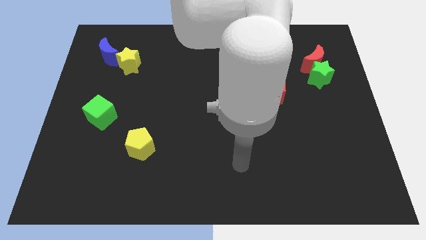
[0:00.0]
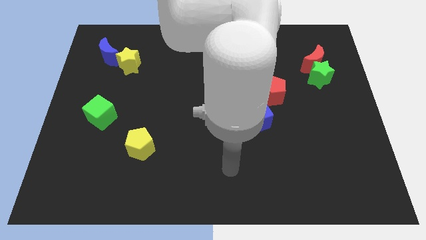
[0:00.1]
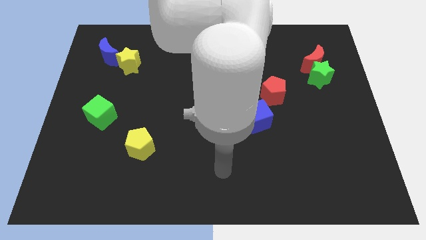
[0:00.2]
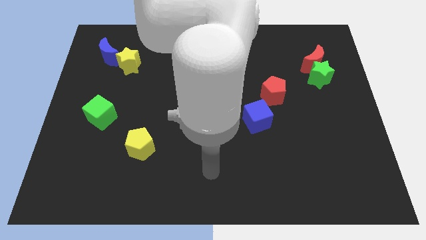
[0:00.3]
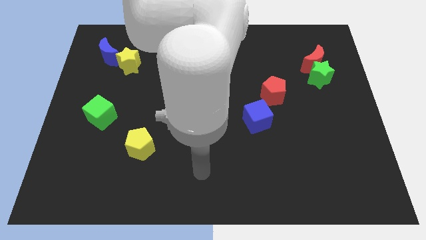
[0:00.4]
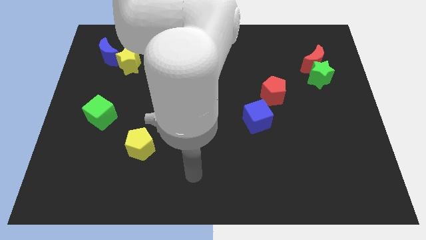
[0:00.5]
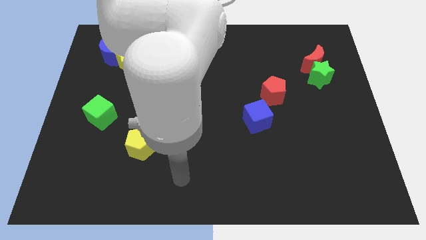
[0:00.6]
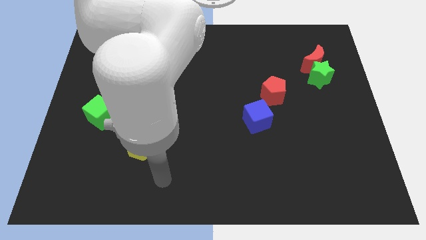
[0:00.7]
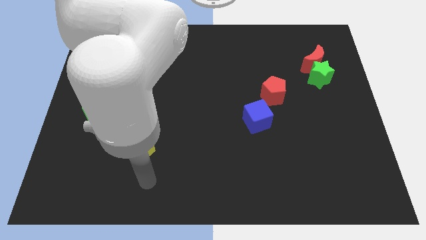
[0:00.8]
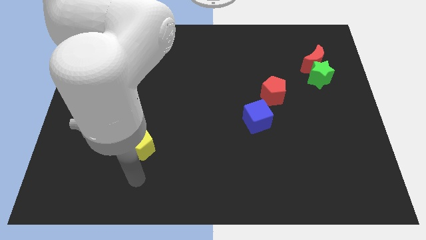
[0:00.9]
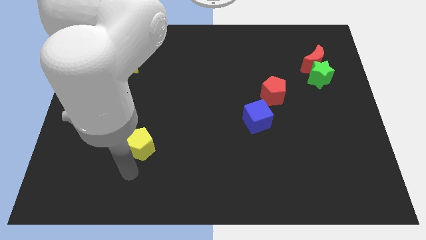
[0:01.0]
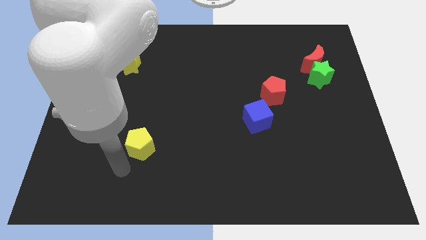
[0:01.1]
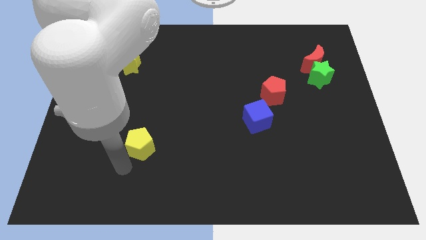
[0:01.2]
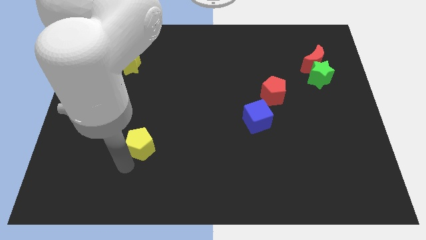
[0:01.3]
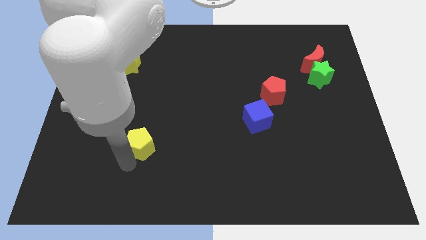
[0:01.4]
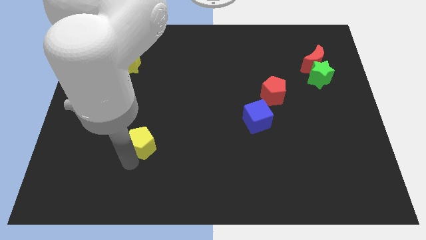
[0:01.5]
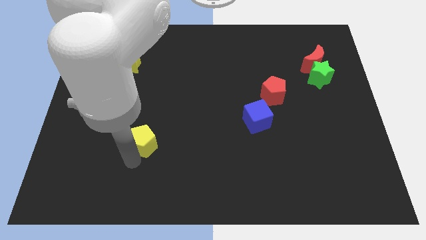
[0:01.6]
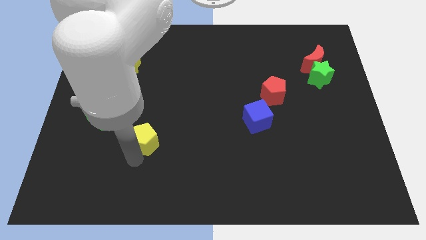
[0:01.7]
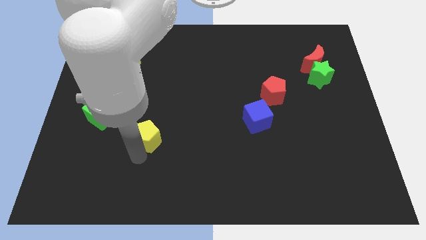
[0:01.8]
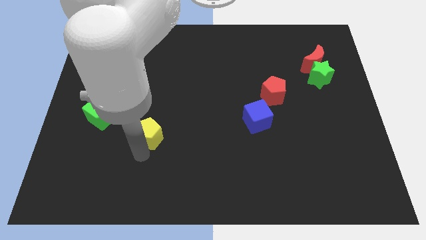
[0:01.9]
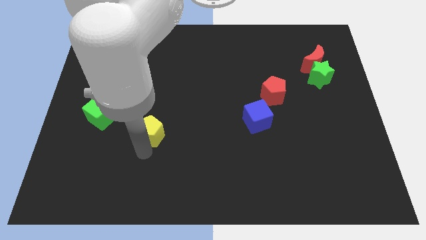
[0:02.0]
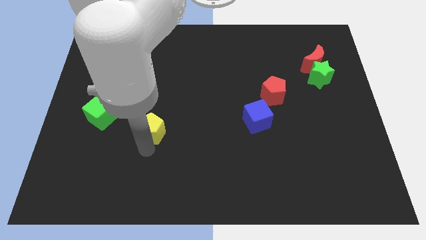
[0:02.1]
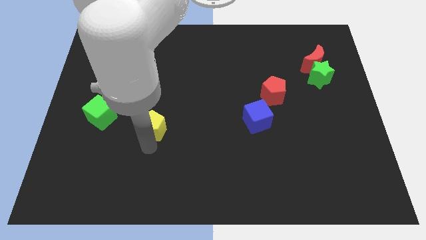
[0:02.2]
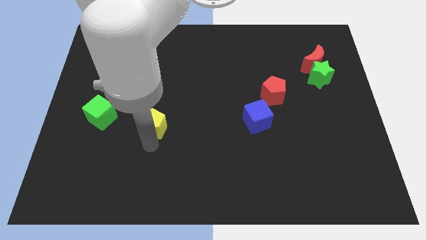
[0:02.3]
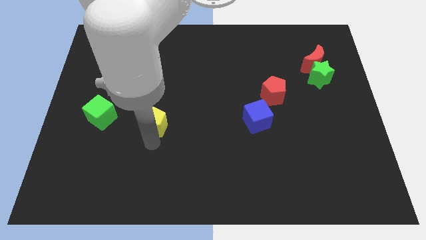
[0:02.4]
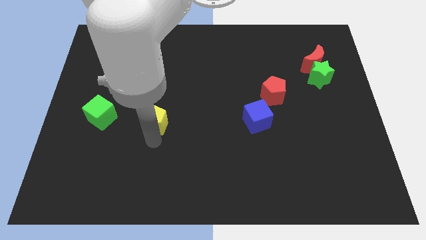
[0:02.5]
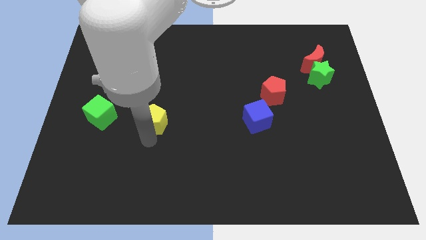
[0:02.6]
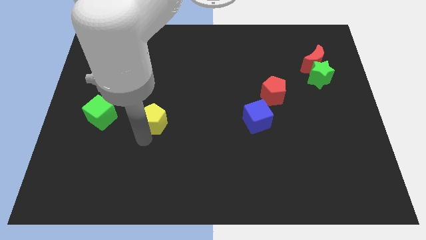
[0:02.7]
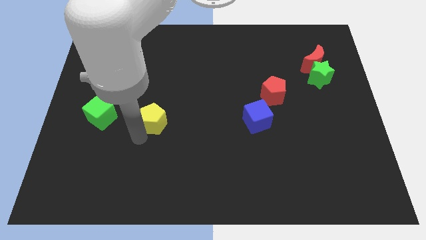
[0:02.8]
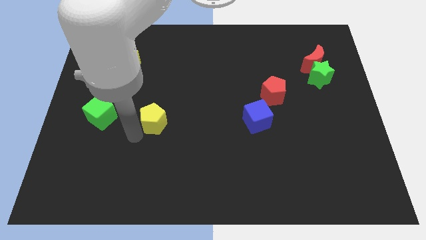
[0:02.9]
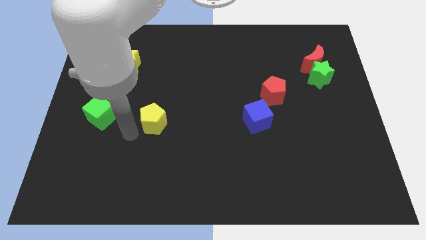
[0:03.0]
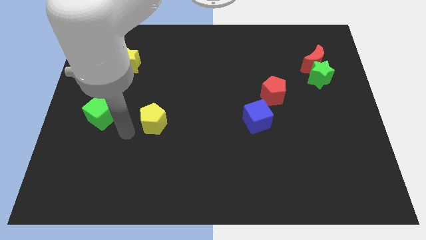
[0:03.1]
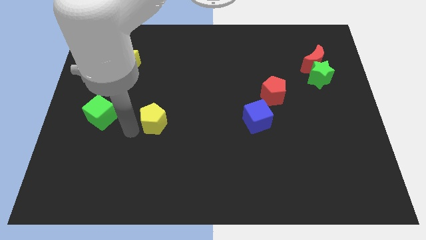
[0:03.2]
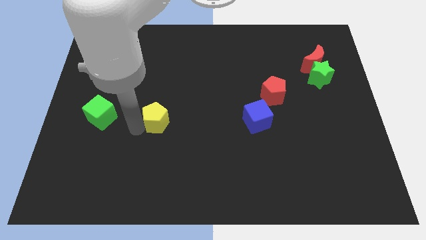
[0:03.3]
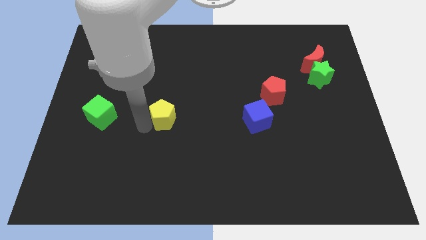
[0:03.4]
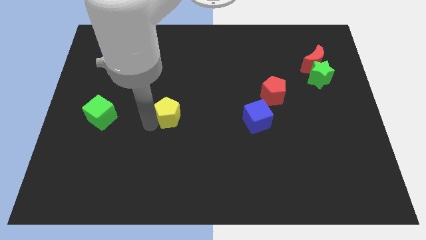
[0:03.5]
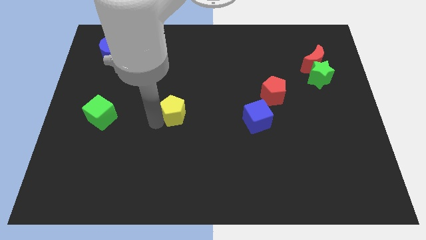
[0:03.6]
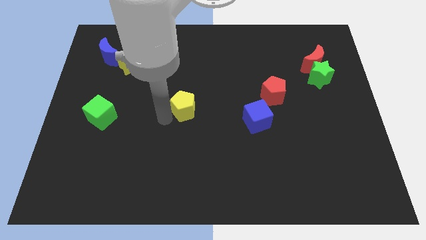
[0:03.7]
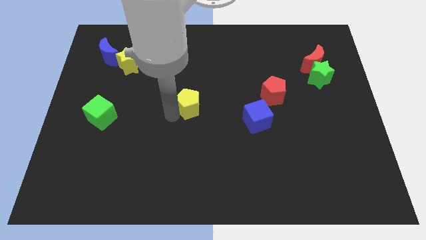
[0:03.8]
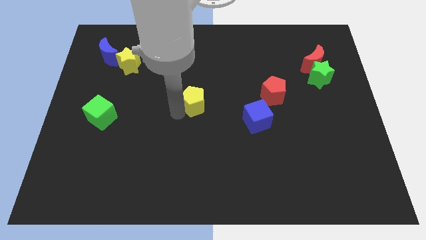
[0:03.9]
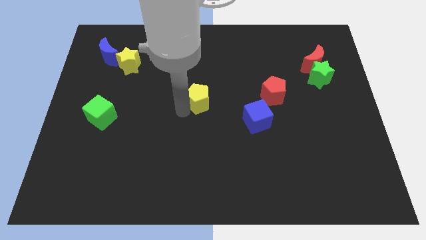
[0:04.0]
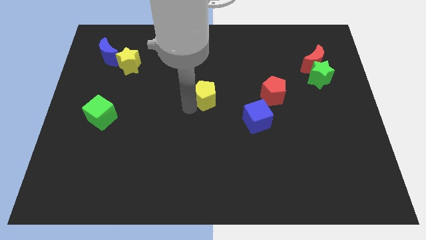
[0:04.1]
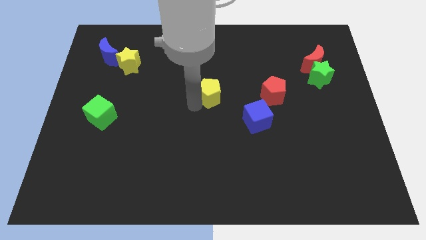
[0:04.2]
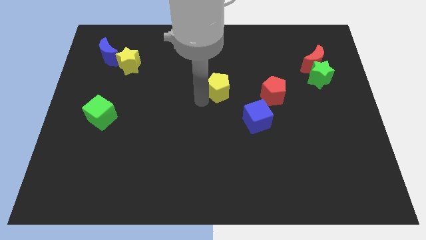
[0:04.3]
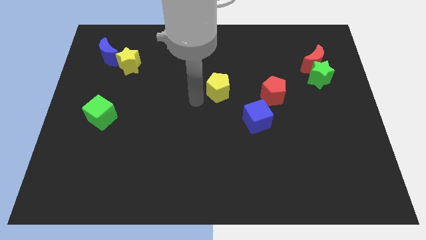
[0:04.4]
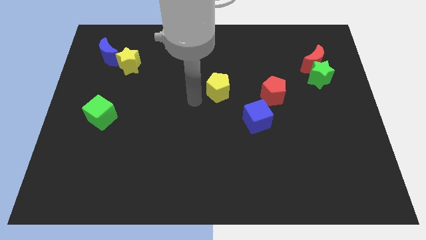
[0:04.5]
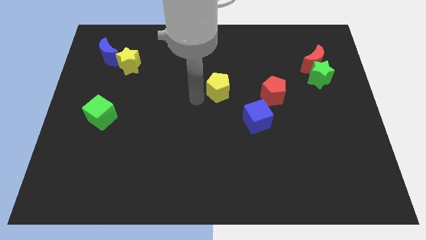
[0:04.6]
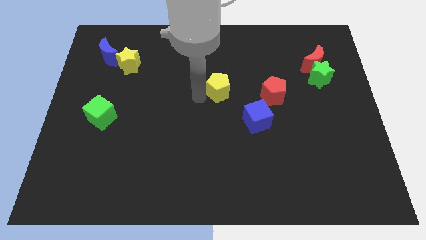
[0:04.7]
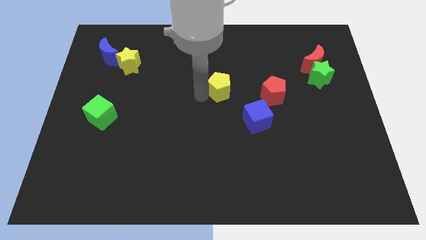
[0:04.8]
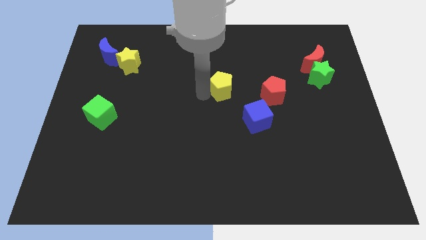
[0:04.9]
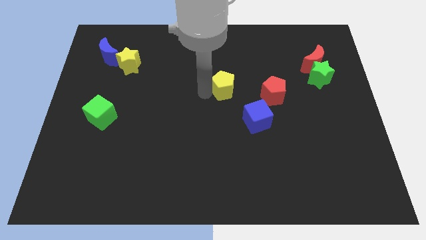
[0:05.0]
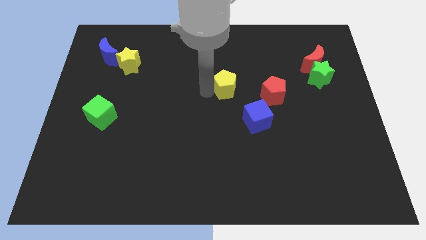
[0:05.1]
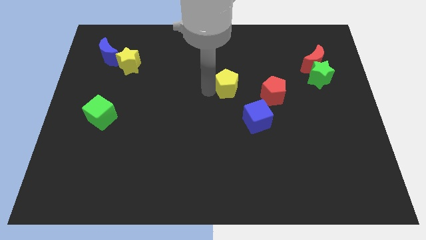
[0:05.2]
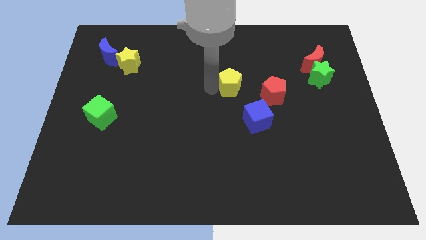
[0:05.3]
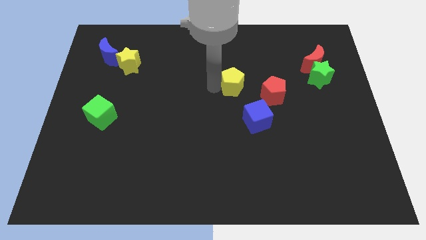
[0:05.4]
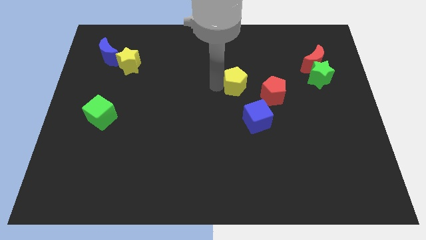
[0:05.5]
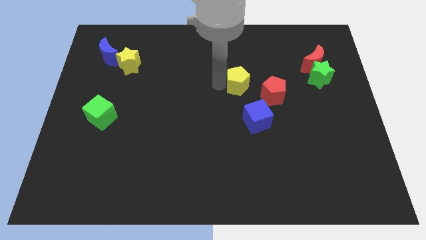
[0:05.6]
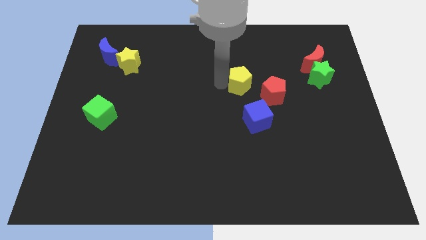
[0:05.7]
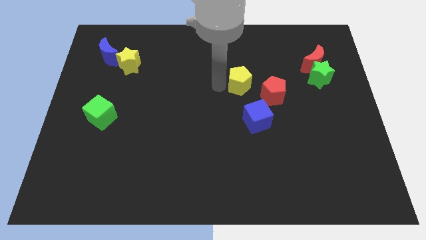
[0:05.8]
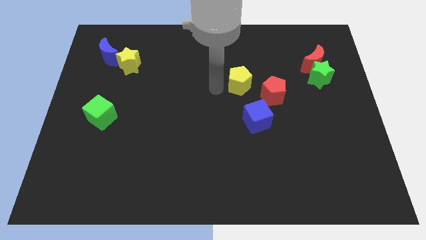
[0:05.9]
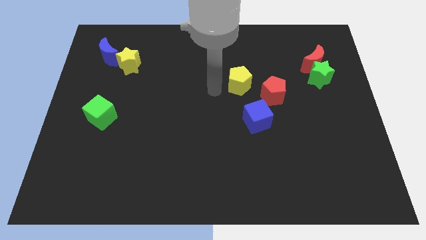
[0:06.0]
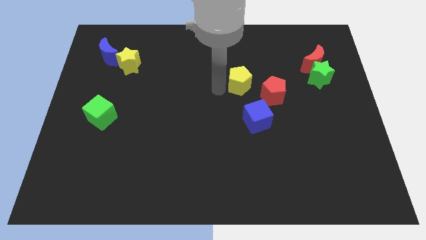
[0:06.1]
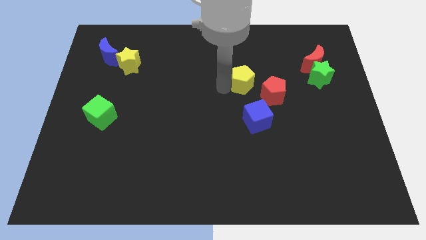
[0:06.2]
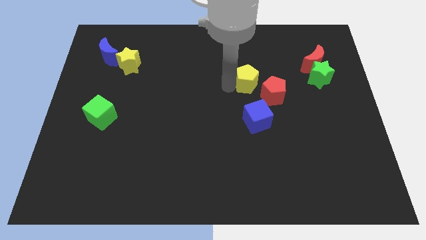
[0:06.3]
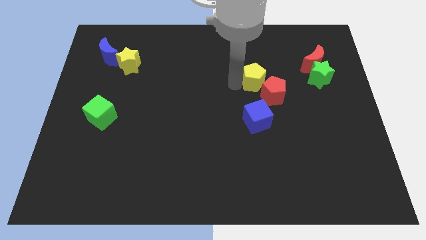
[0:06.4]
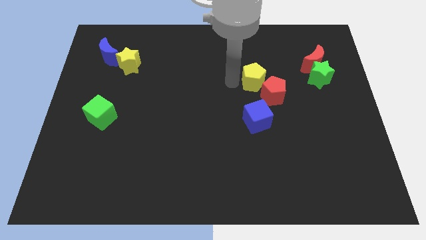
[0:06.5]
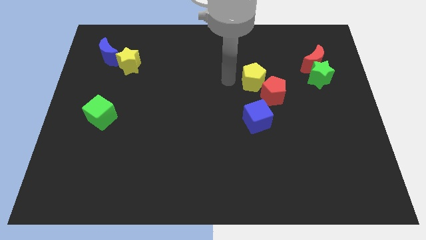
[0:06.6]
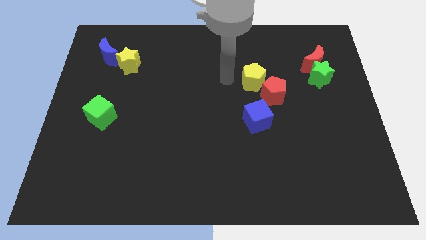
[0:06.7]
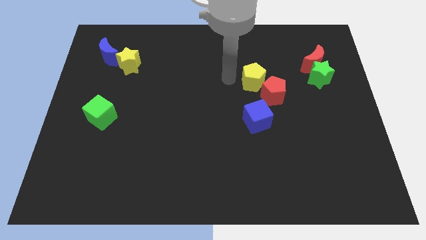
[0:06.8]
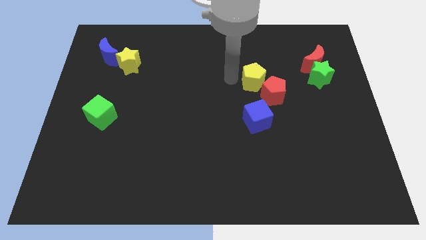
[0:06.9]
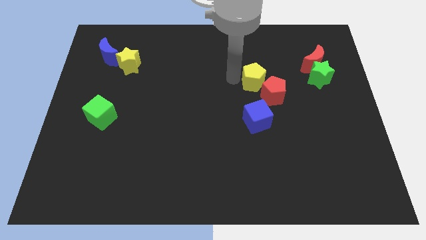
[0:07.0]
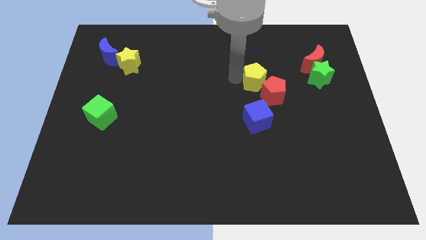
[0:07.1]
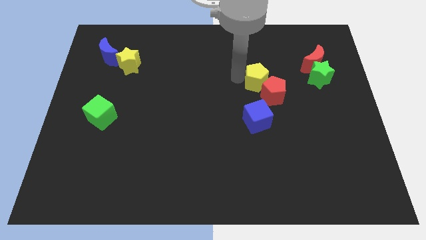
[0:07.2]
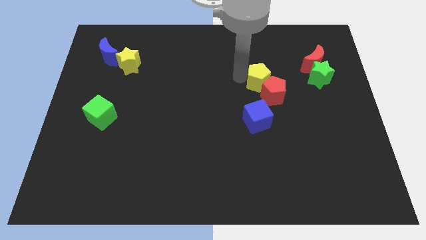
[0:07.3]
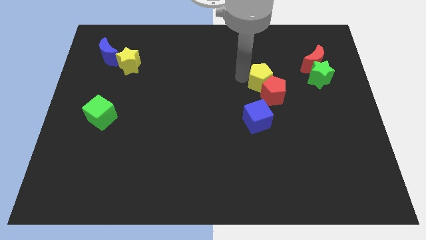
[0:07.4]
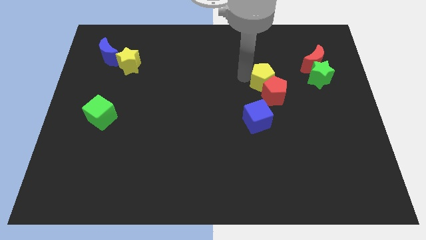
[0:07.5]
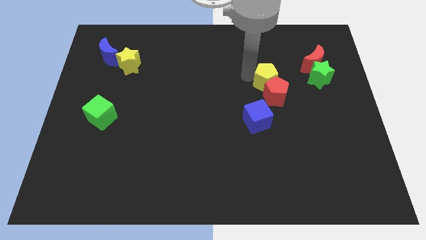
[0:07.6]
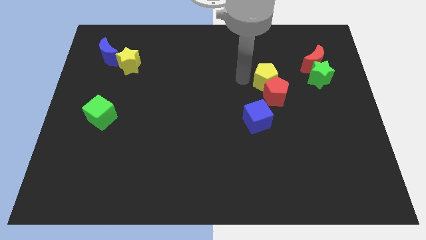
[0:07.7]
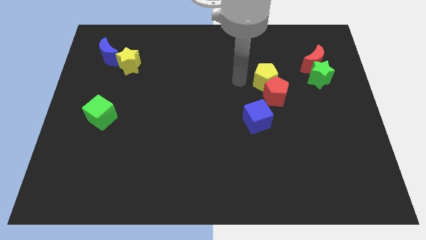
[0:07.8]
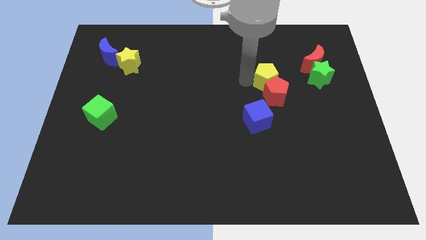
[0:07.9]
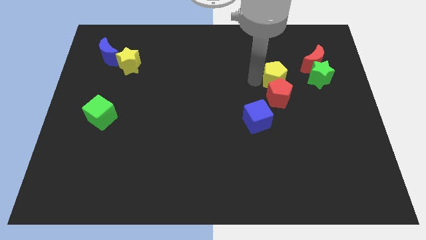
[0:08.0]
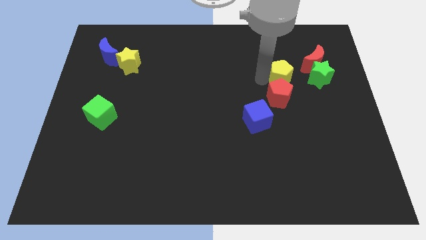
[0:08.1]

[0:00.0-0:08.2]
push the yellow pentagon to the bottom left side of the red moon
